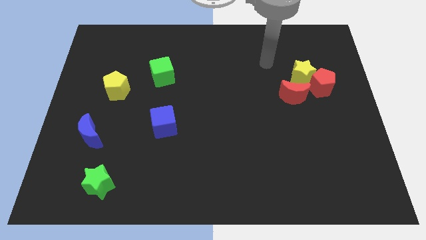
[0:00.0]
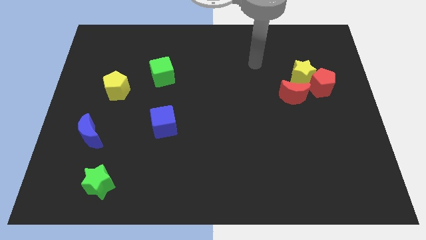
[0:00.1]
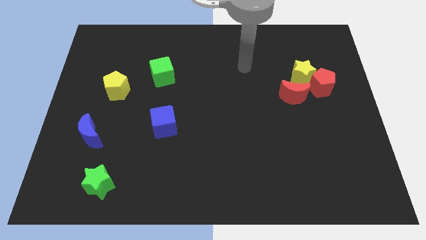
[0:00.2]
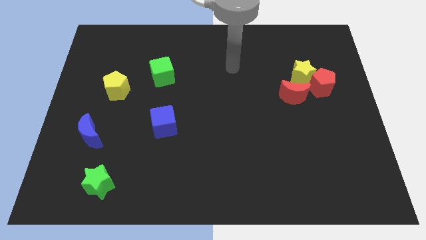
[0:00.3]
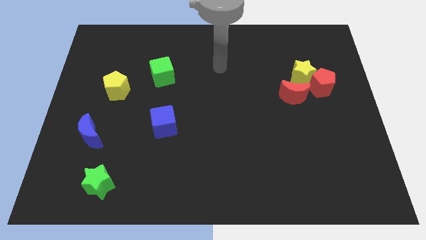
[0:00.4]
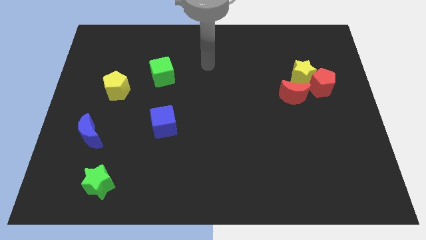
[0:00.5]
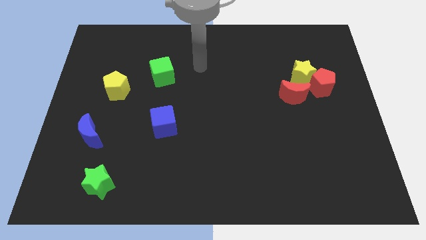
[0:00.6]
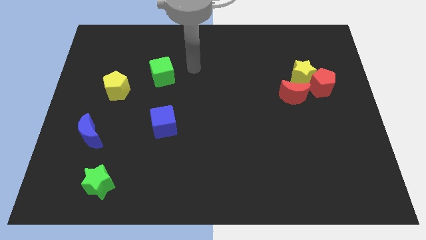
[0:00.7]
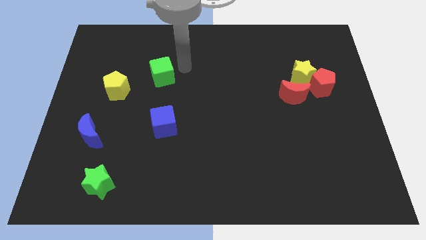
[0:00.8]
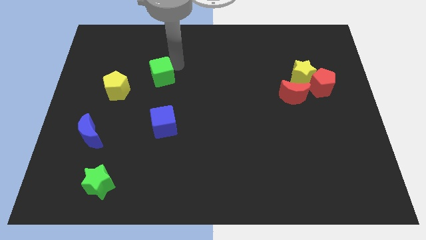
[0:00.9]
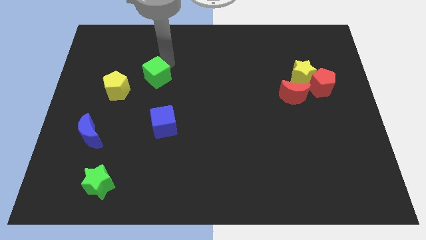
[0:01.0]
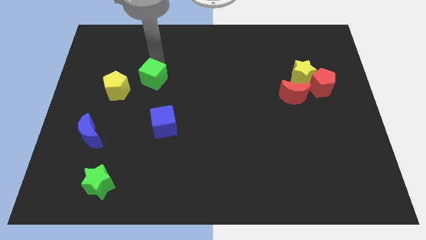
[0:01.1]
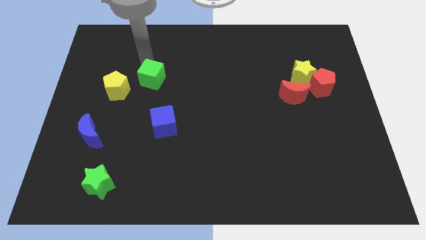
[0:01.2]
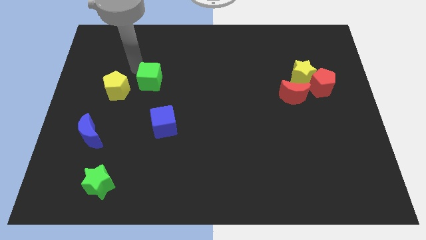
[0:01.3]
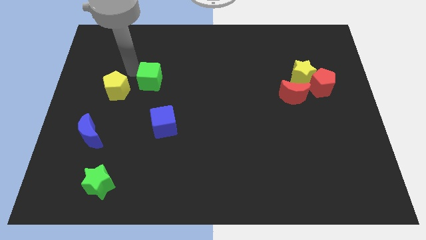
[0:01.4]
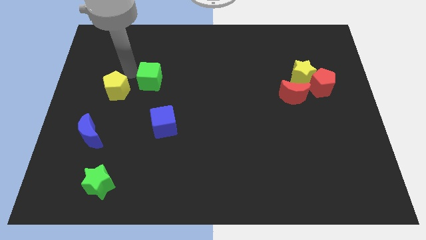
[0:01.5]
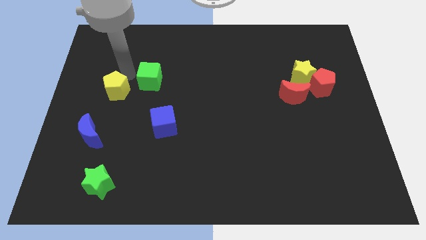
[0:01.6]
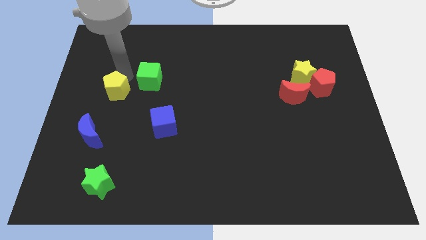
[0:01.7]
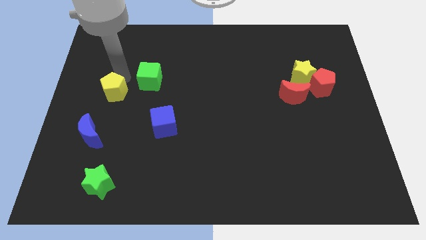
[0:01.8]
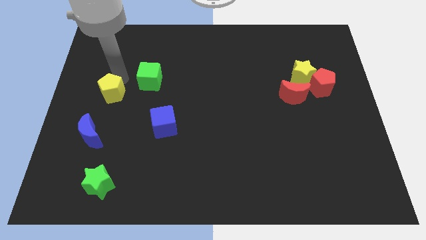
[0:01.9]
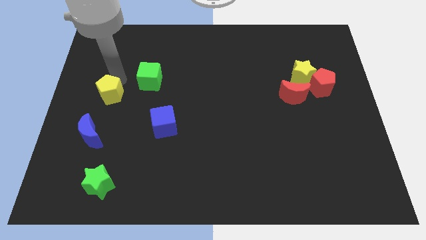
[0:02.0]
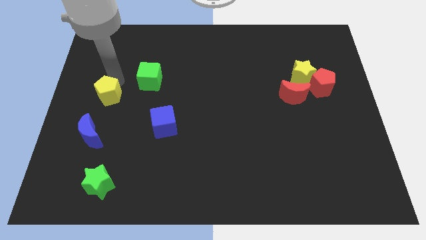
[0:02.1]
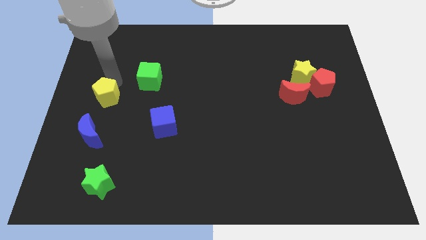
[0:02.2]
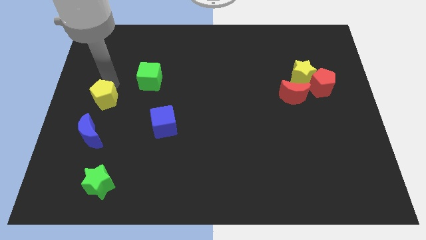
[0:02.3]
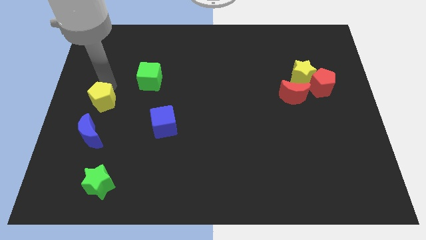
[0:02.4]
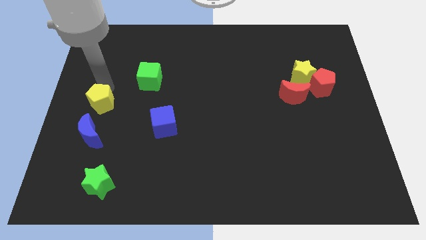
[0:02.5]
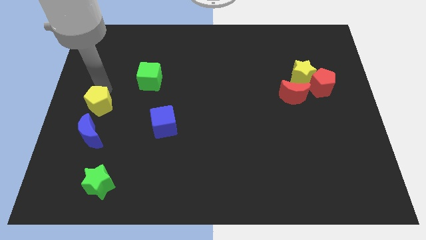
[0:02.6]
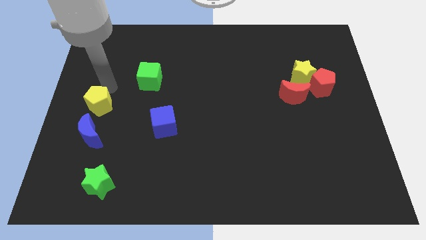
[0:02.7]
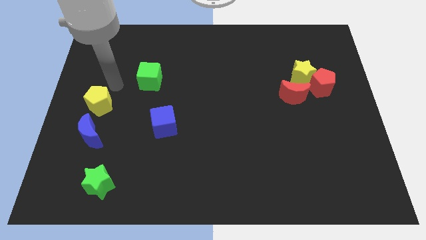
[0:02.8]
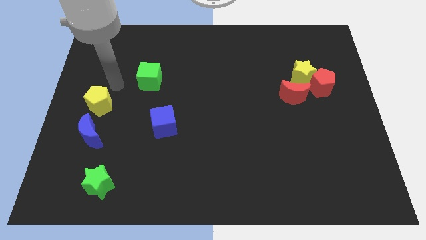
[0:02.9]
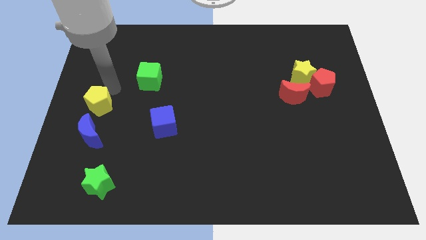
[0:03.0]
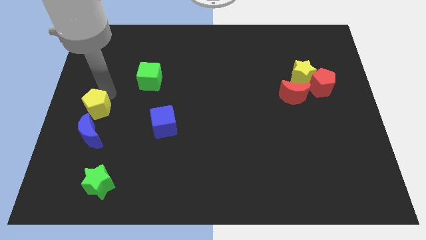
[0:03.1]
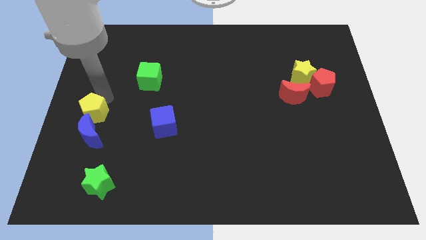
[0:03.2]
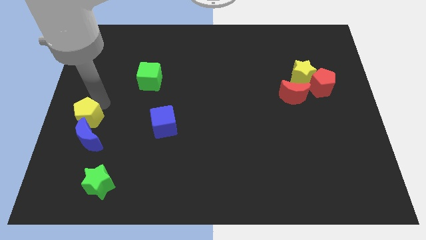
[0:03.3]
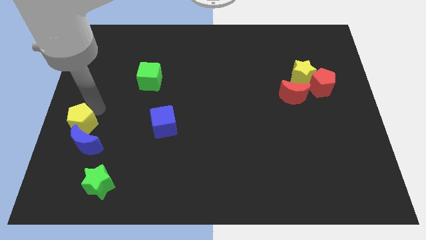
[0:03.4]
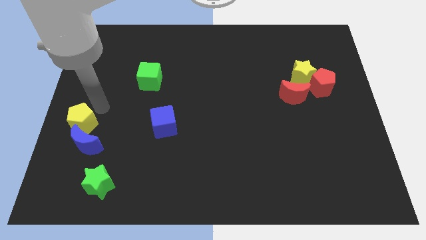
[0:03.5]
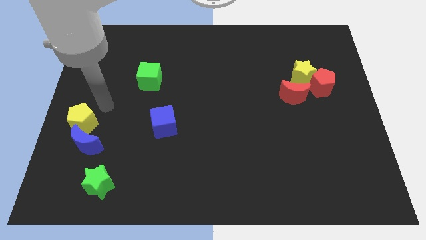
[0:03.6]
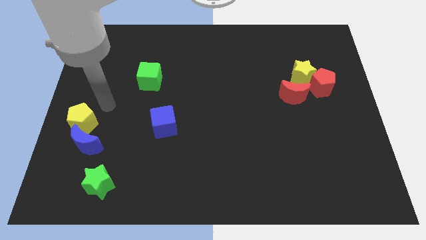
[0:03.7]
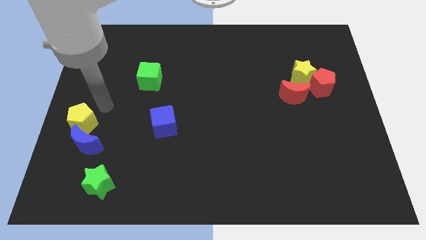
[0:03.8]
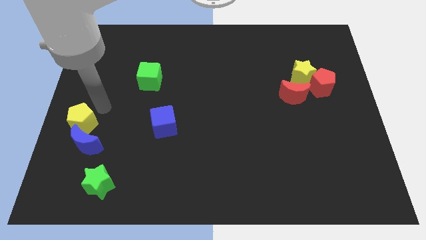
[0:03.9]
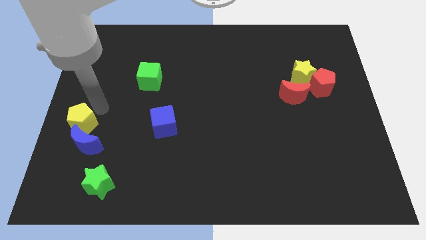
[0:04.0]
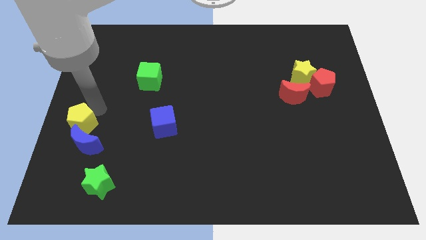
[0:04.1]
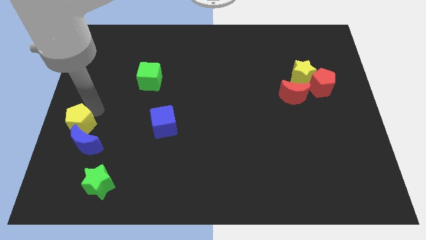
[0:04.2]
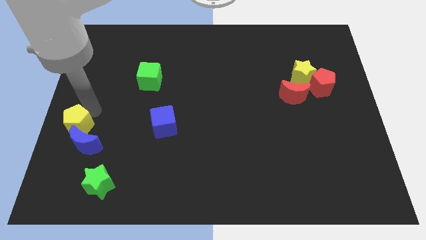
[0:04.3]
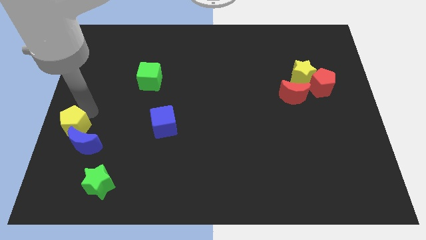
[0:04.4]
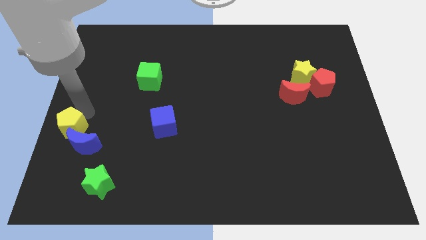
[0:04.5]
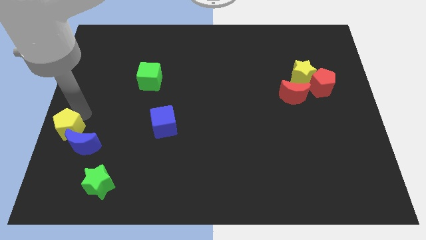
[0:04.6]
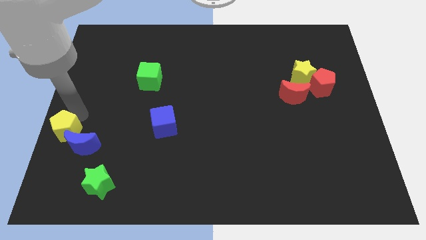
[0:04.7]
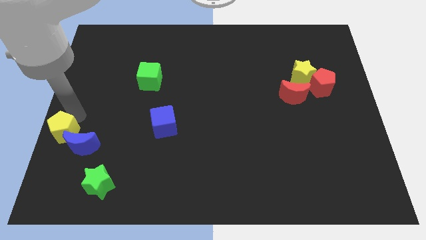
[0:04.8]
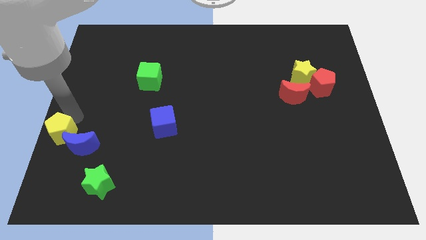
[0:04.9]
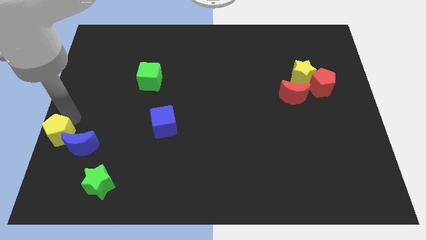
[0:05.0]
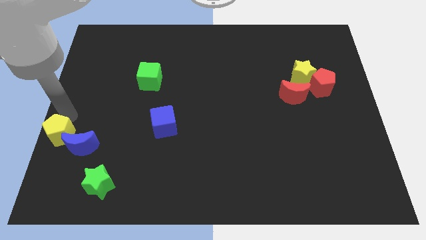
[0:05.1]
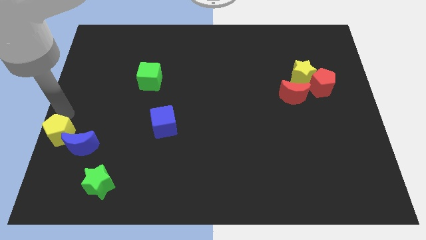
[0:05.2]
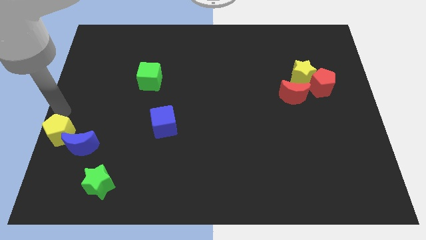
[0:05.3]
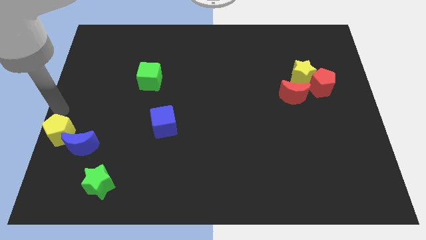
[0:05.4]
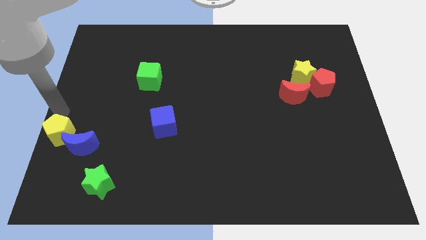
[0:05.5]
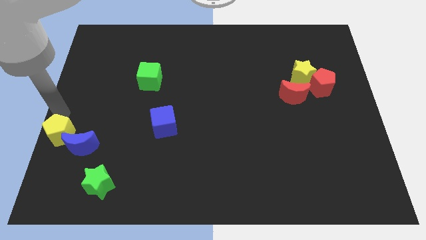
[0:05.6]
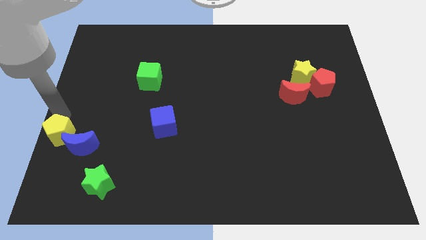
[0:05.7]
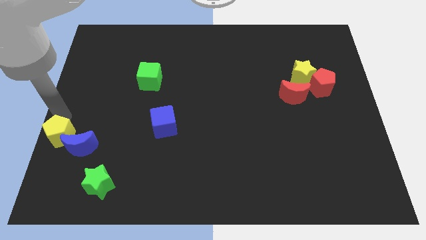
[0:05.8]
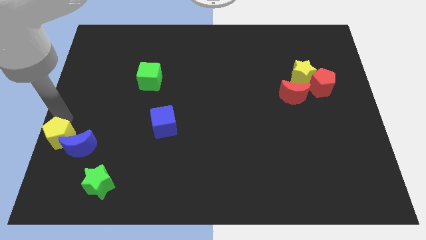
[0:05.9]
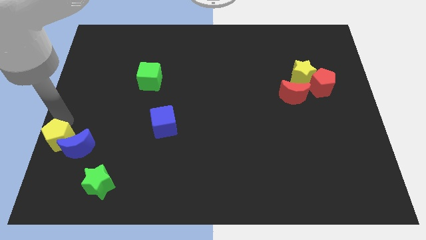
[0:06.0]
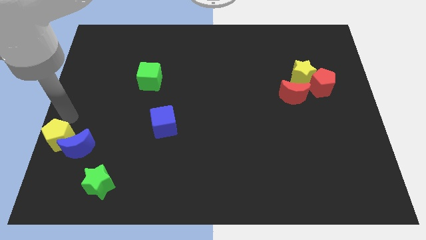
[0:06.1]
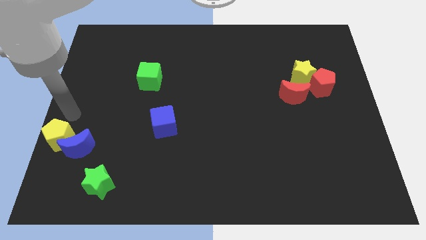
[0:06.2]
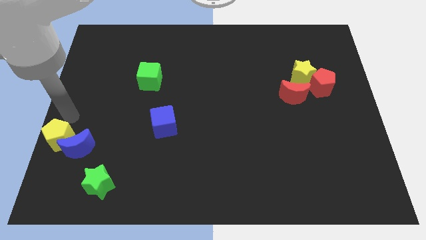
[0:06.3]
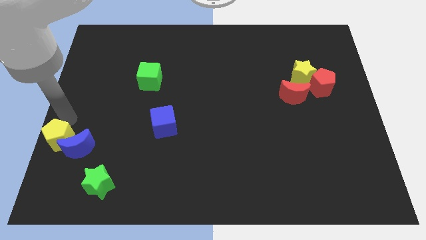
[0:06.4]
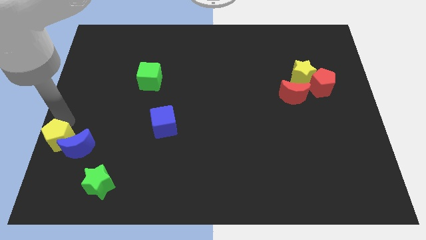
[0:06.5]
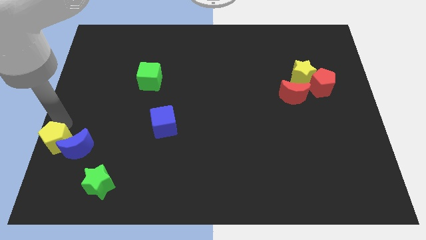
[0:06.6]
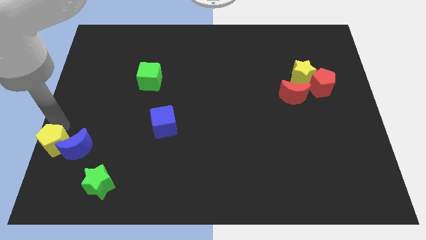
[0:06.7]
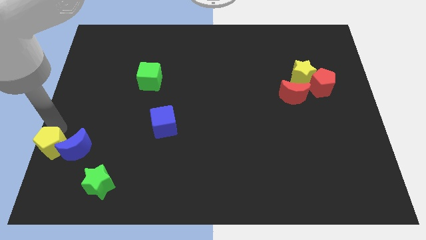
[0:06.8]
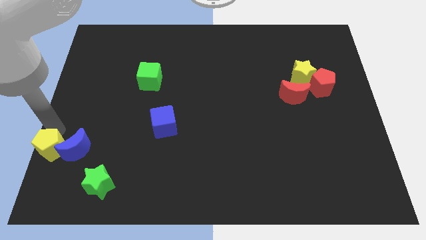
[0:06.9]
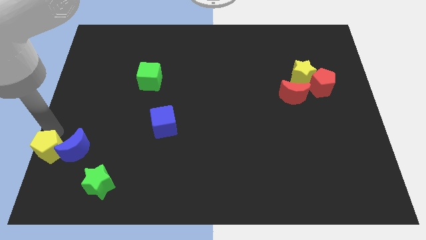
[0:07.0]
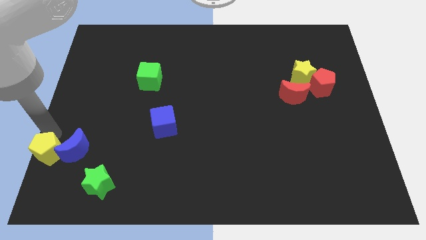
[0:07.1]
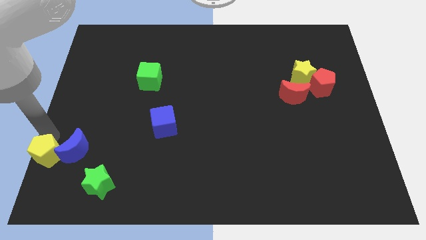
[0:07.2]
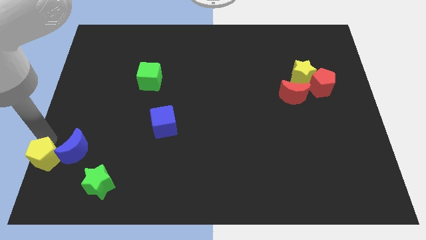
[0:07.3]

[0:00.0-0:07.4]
push the yellow pentagon to the lower left corner
